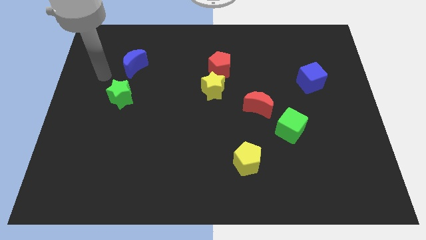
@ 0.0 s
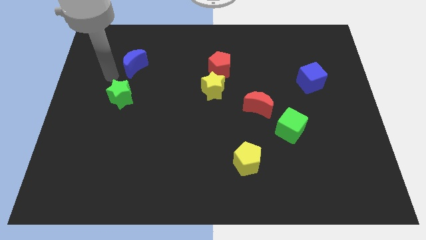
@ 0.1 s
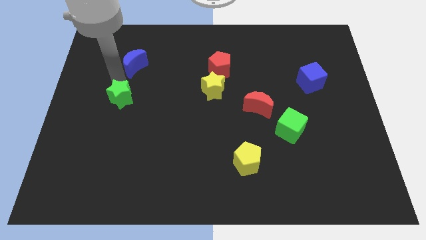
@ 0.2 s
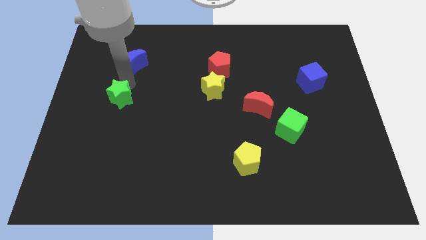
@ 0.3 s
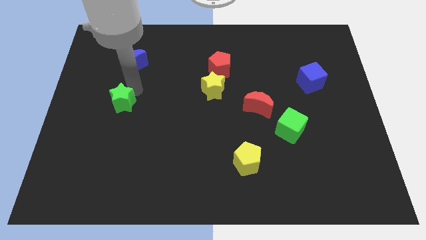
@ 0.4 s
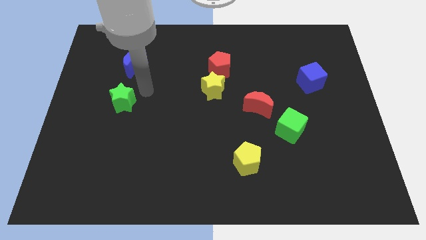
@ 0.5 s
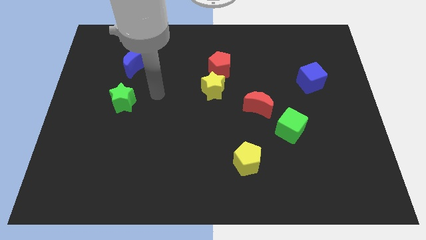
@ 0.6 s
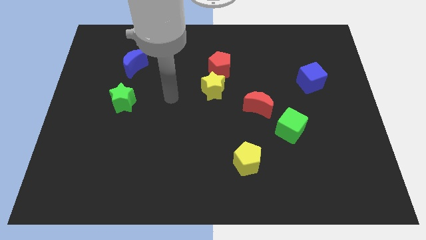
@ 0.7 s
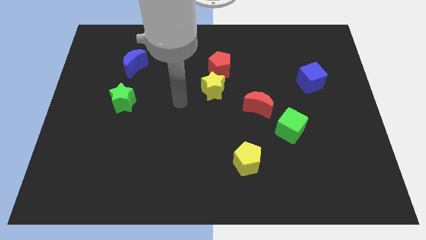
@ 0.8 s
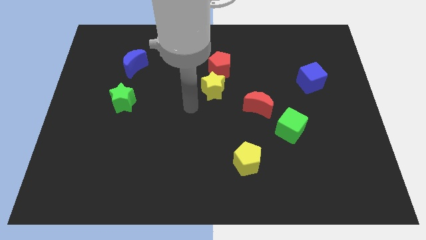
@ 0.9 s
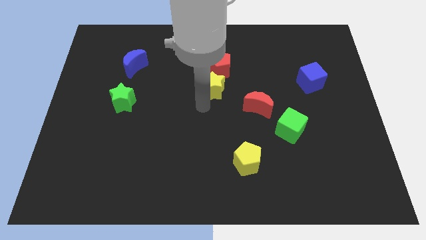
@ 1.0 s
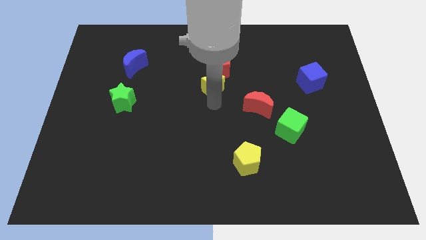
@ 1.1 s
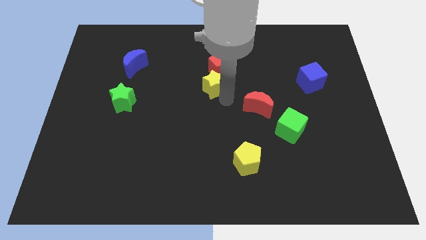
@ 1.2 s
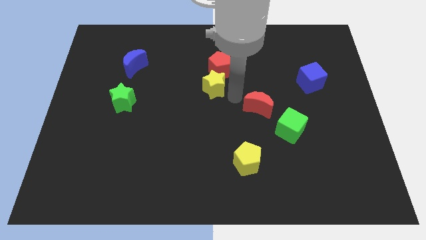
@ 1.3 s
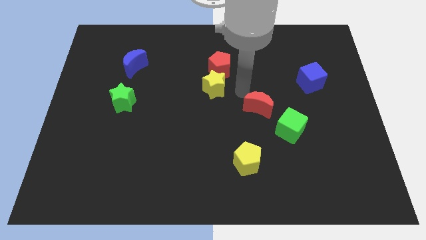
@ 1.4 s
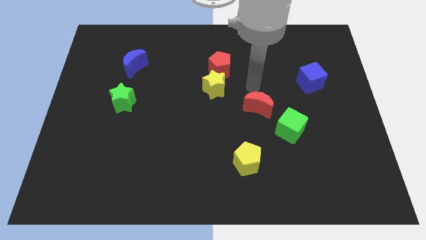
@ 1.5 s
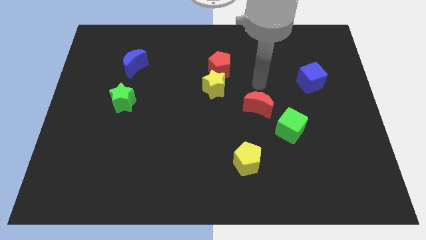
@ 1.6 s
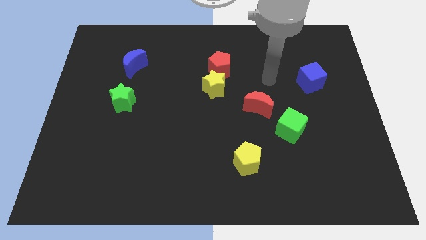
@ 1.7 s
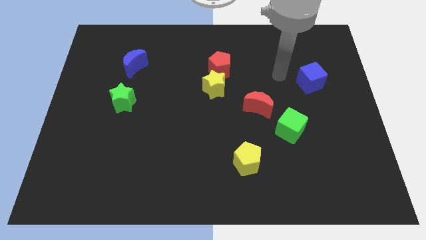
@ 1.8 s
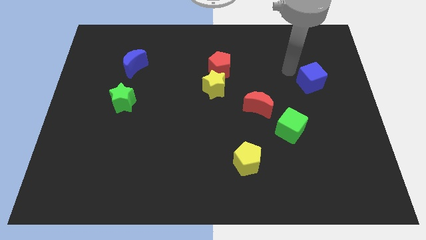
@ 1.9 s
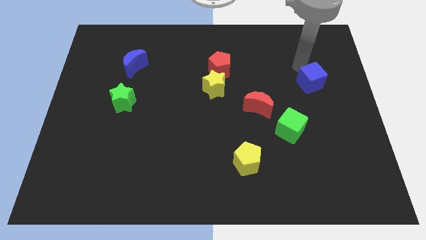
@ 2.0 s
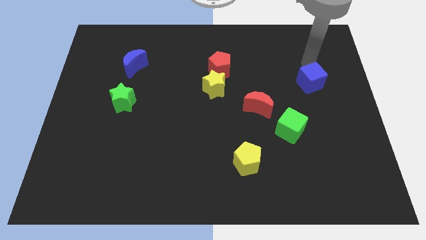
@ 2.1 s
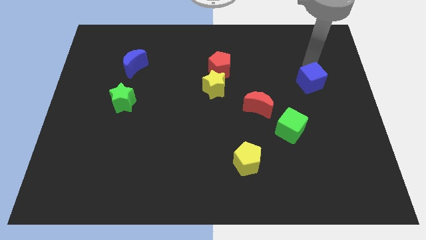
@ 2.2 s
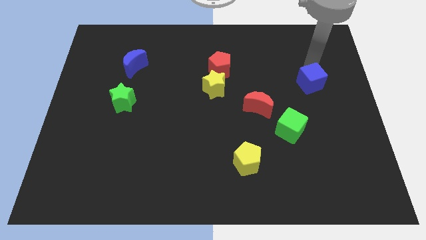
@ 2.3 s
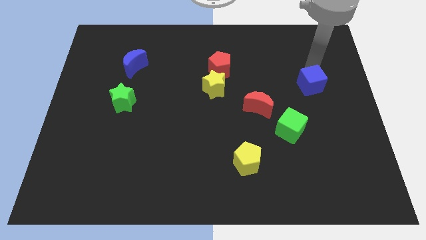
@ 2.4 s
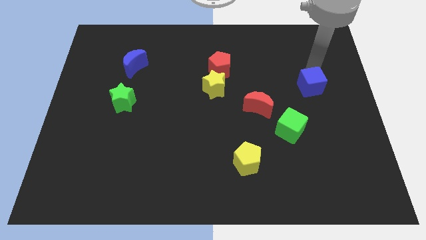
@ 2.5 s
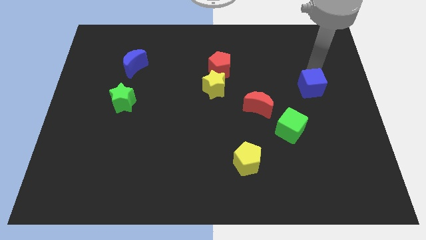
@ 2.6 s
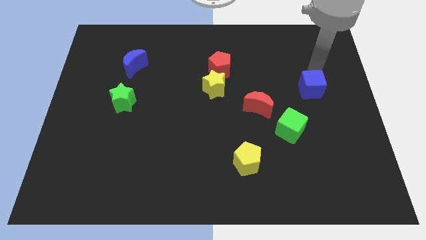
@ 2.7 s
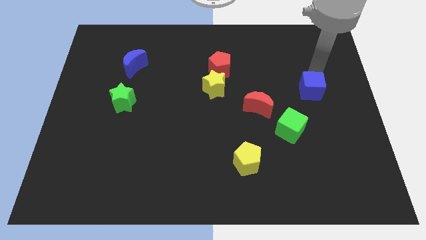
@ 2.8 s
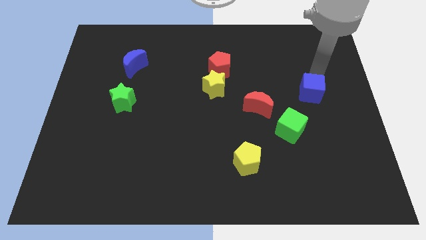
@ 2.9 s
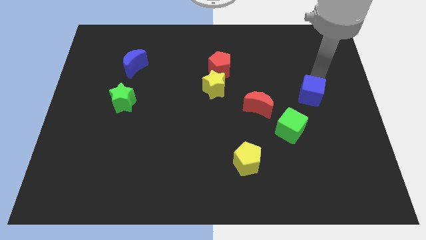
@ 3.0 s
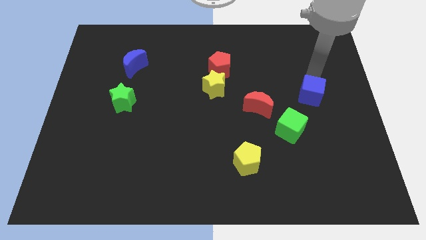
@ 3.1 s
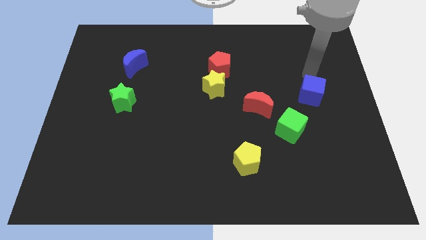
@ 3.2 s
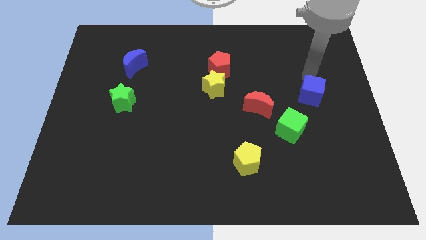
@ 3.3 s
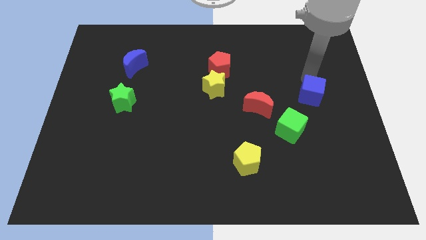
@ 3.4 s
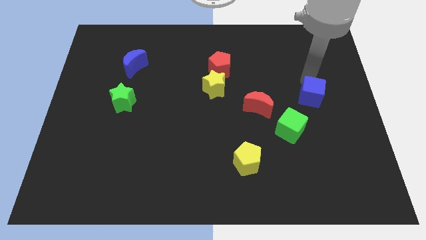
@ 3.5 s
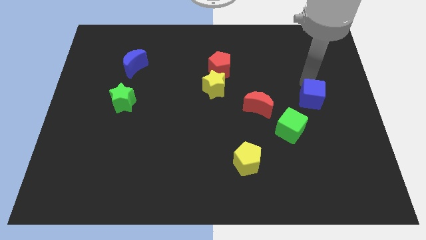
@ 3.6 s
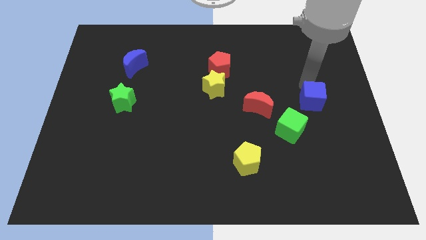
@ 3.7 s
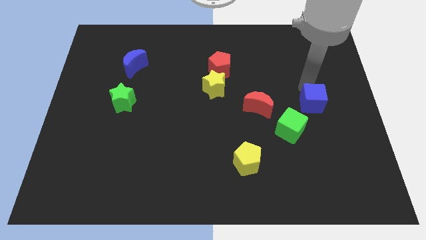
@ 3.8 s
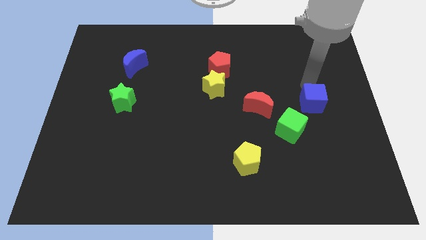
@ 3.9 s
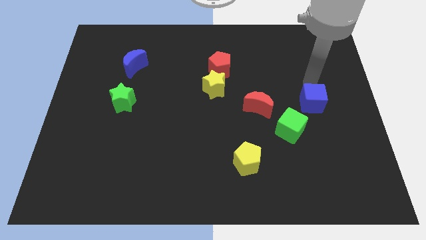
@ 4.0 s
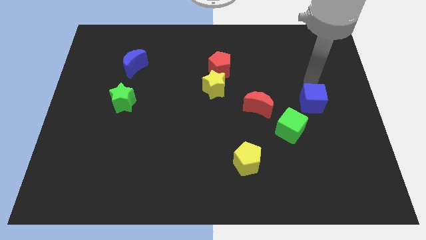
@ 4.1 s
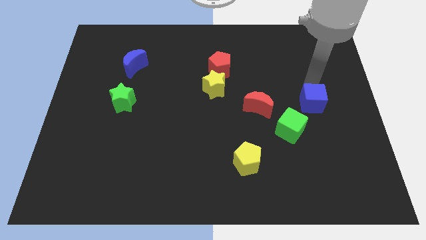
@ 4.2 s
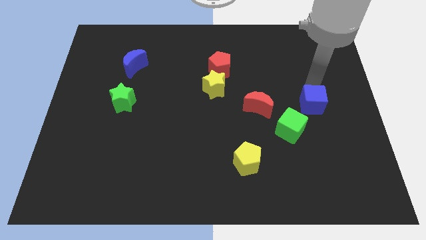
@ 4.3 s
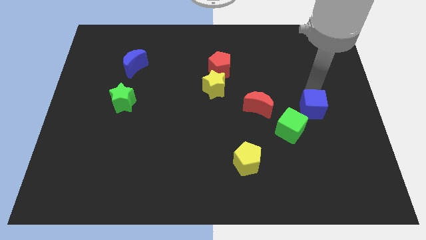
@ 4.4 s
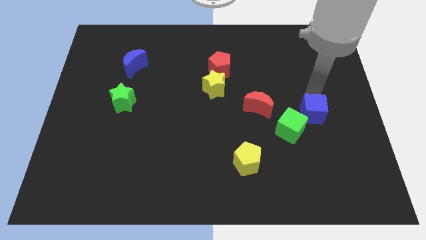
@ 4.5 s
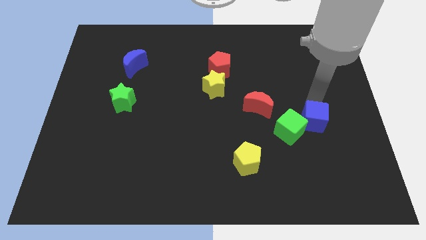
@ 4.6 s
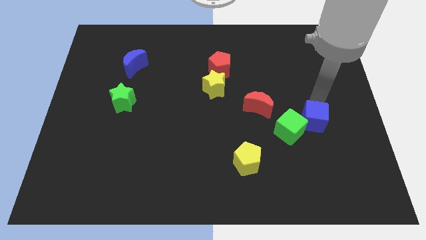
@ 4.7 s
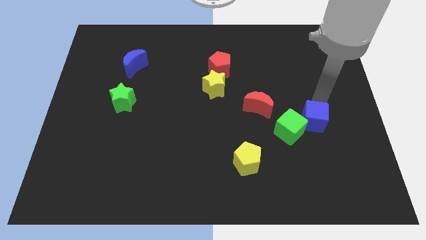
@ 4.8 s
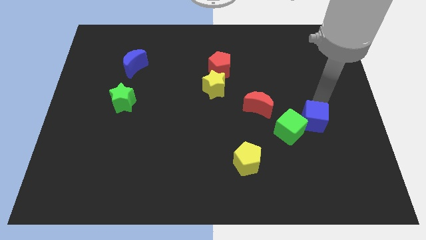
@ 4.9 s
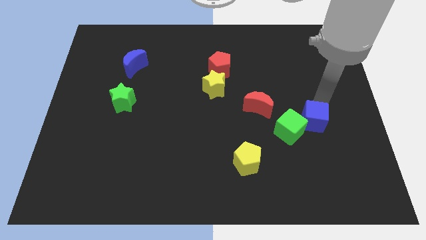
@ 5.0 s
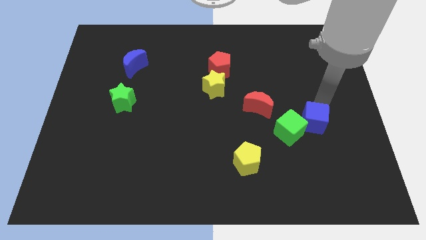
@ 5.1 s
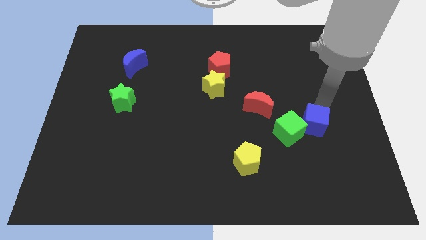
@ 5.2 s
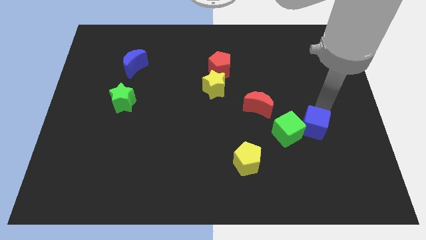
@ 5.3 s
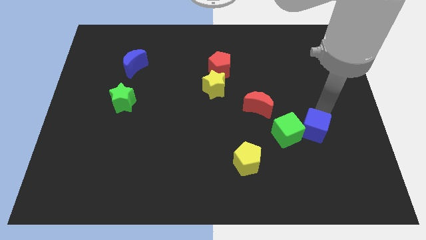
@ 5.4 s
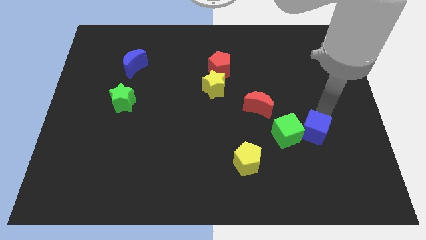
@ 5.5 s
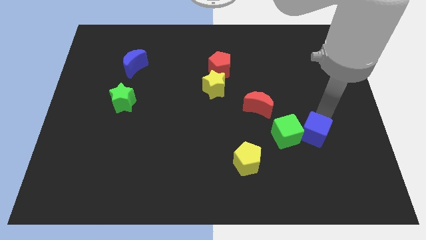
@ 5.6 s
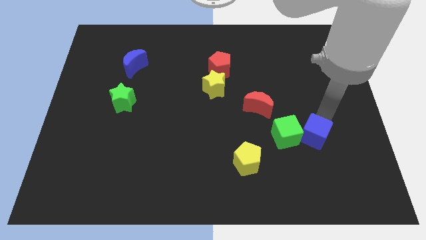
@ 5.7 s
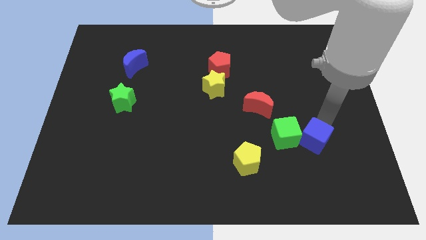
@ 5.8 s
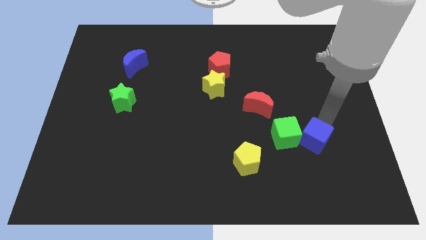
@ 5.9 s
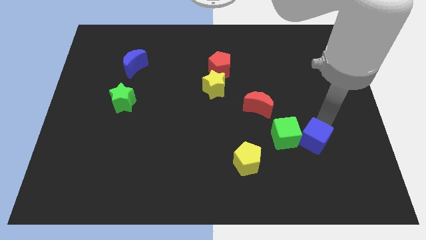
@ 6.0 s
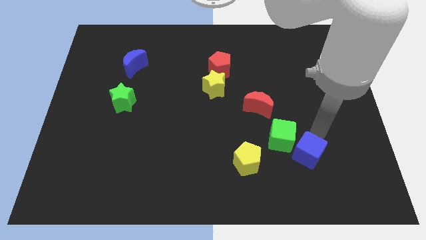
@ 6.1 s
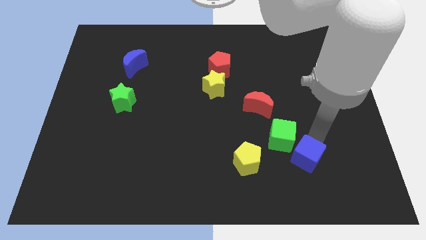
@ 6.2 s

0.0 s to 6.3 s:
slide the blue cube below the green cube

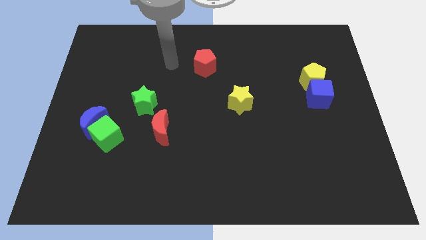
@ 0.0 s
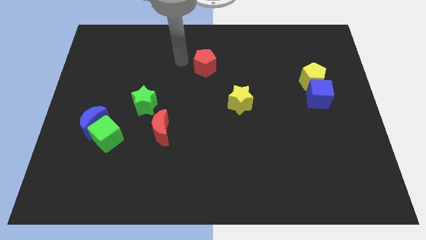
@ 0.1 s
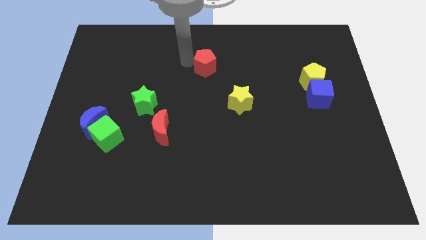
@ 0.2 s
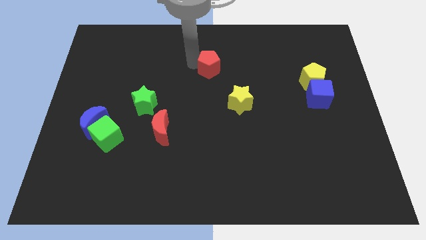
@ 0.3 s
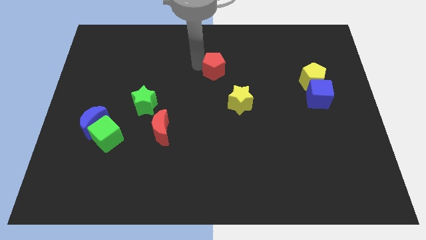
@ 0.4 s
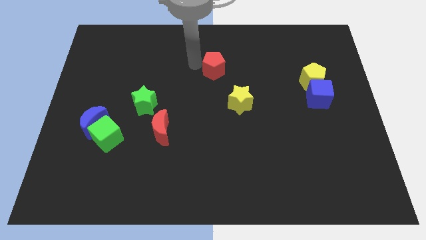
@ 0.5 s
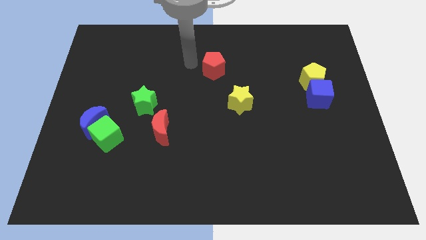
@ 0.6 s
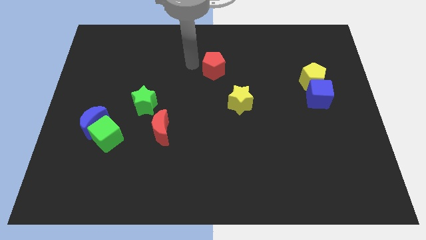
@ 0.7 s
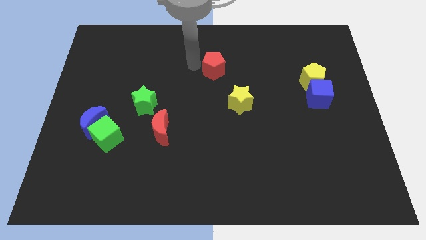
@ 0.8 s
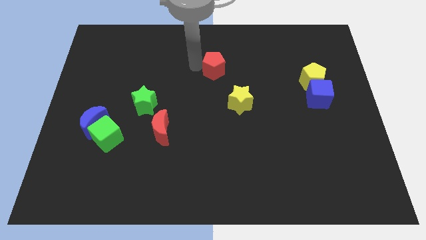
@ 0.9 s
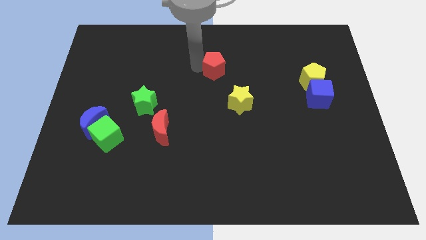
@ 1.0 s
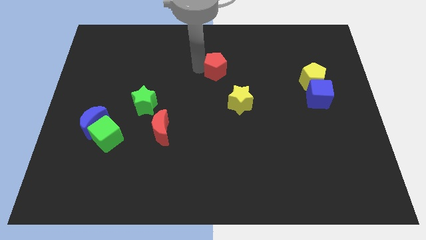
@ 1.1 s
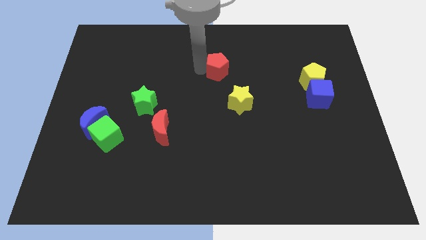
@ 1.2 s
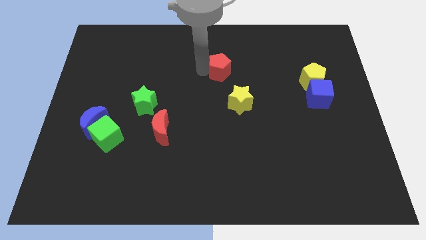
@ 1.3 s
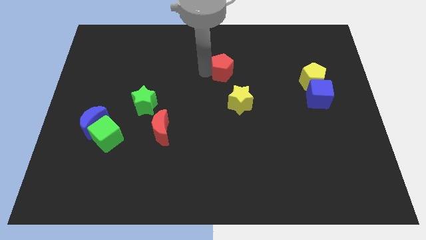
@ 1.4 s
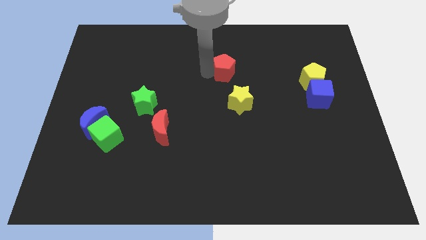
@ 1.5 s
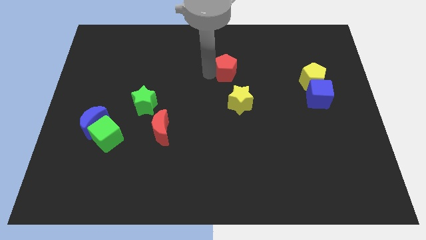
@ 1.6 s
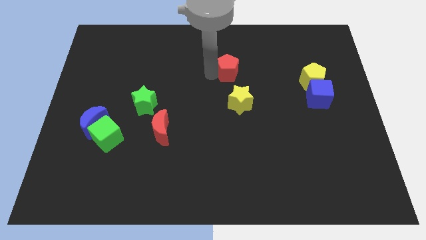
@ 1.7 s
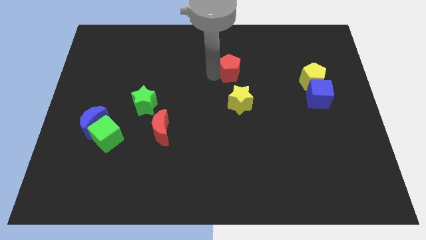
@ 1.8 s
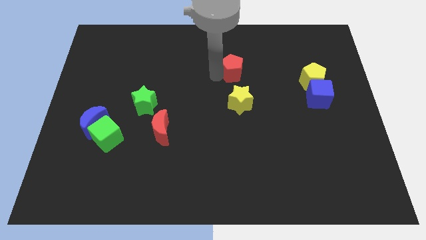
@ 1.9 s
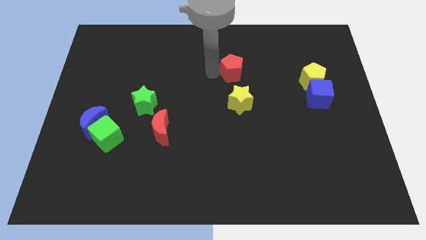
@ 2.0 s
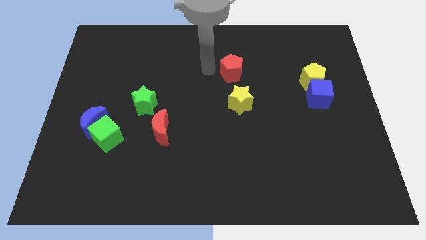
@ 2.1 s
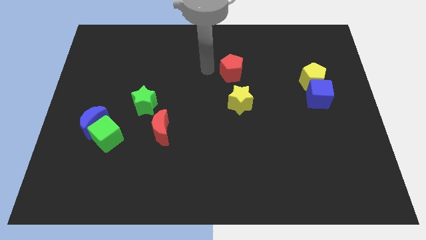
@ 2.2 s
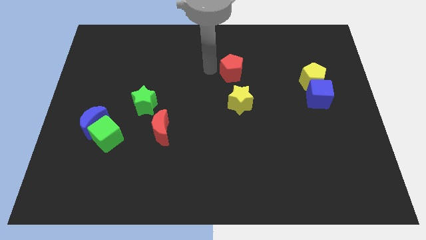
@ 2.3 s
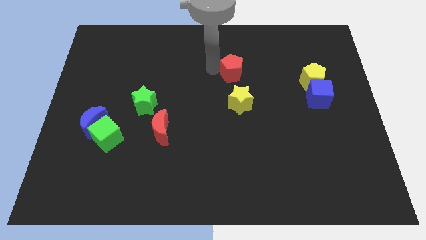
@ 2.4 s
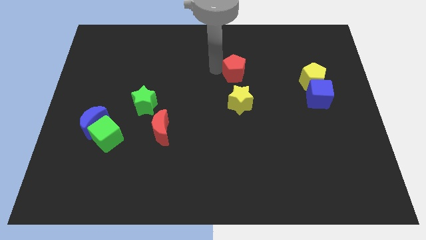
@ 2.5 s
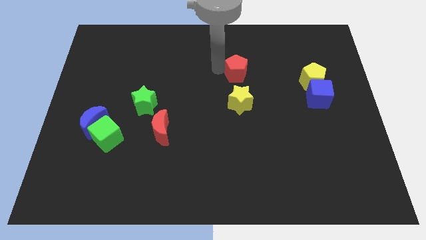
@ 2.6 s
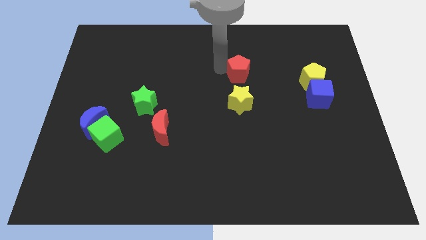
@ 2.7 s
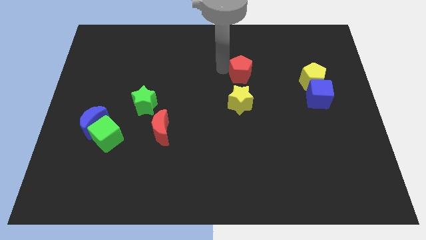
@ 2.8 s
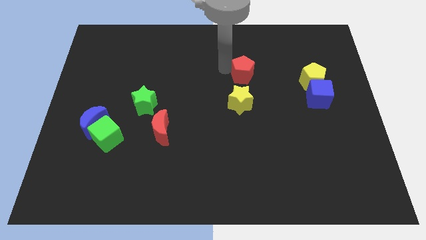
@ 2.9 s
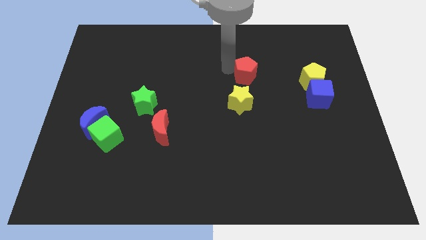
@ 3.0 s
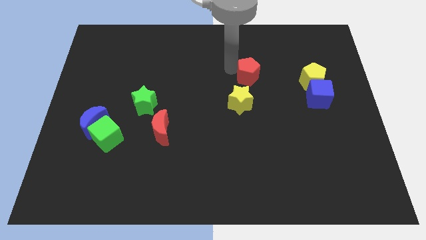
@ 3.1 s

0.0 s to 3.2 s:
put the red pentagon to the left side of the yellow pentagon
